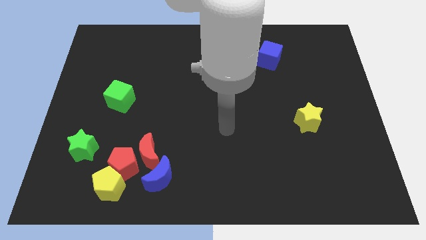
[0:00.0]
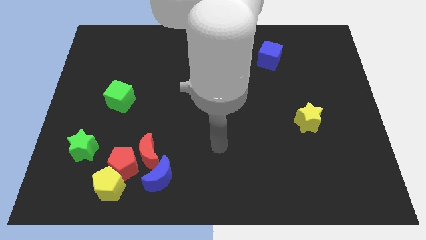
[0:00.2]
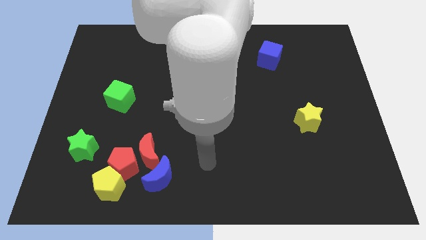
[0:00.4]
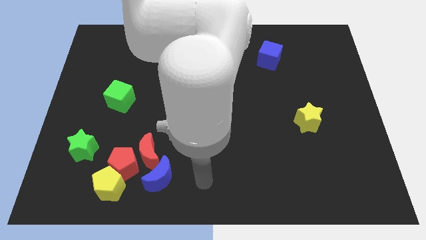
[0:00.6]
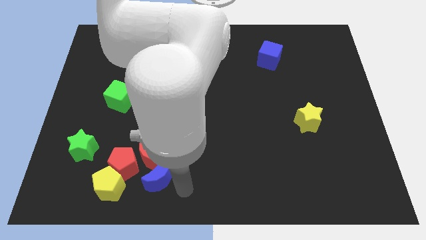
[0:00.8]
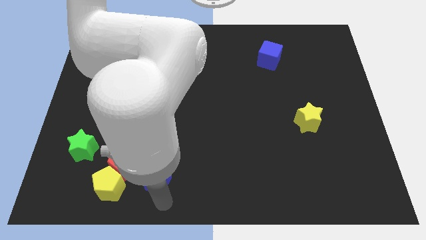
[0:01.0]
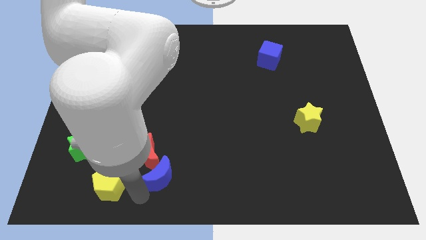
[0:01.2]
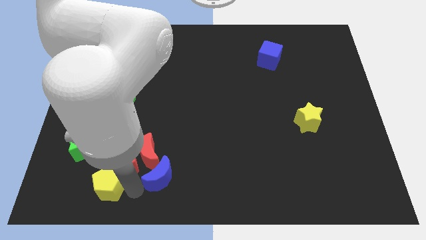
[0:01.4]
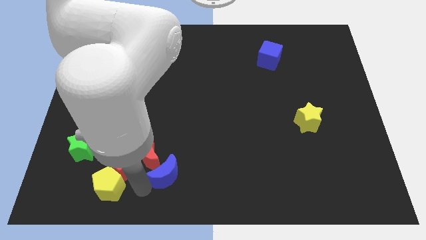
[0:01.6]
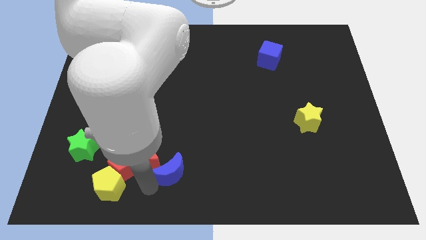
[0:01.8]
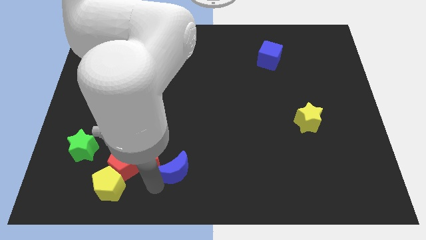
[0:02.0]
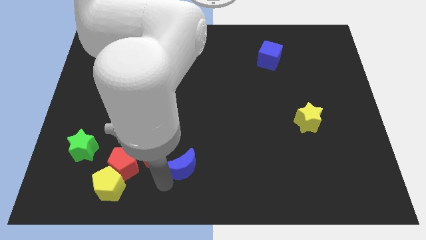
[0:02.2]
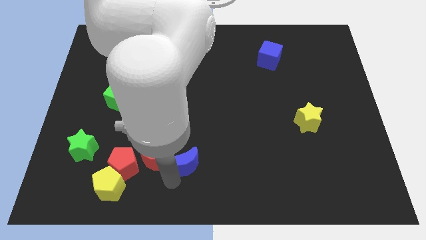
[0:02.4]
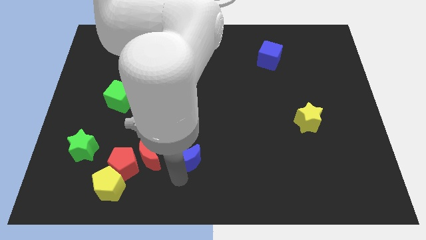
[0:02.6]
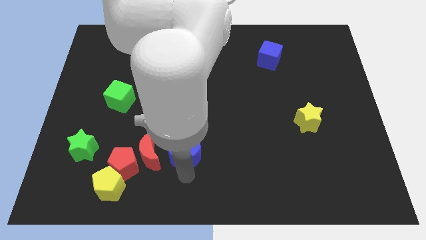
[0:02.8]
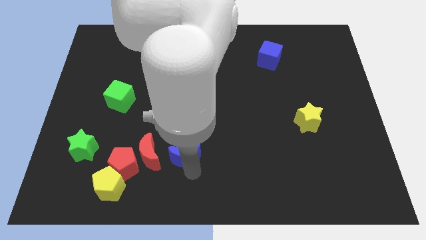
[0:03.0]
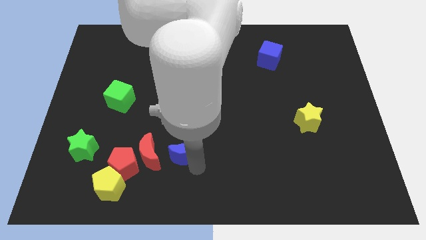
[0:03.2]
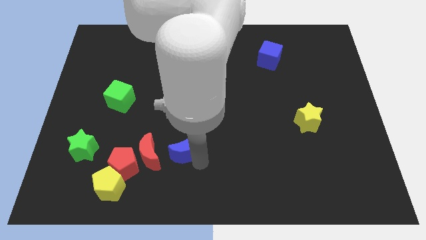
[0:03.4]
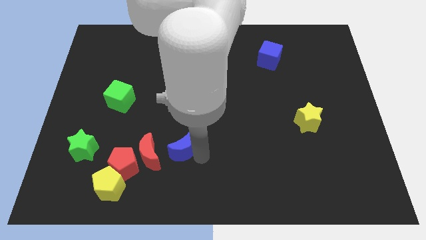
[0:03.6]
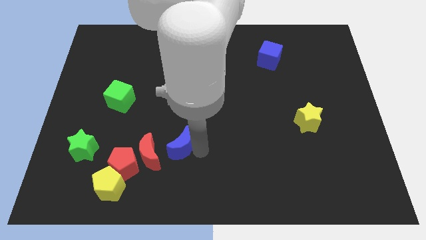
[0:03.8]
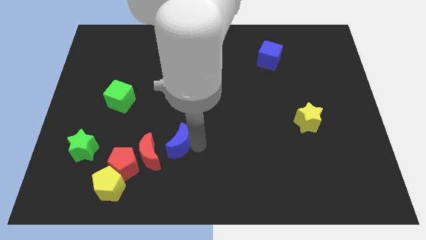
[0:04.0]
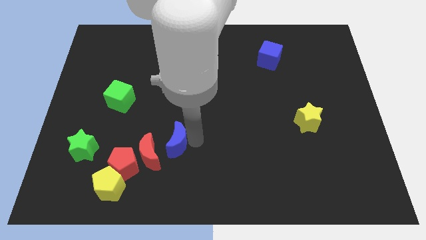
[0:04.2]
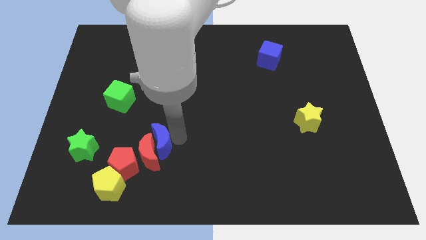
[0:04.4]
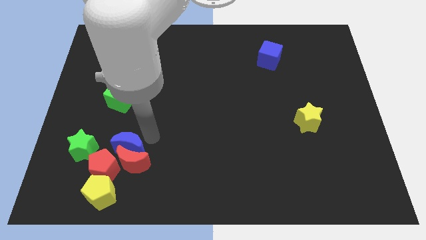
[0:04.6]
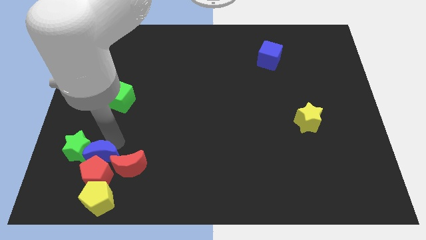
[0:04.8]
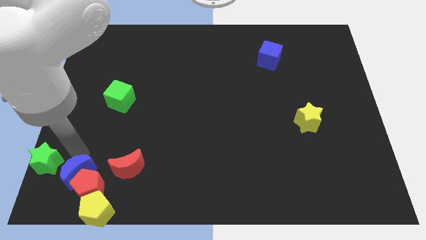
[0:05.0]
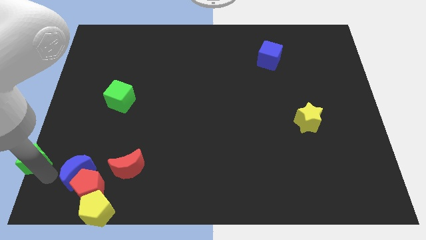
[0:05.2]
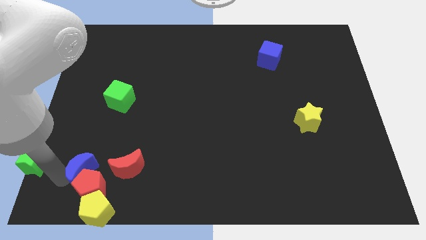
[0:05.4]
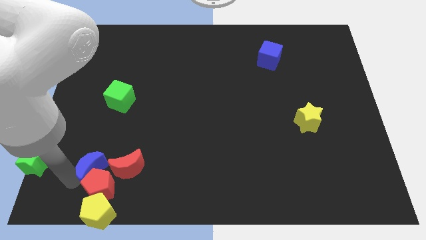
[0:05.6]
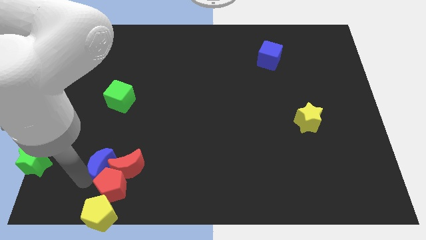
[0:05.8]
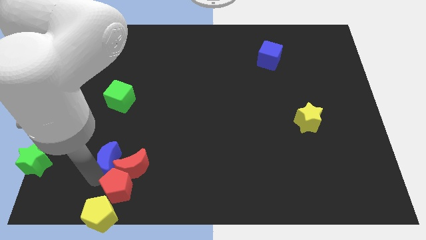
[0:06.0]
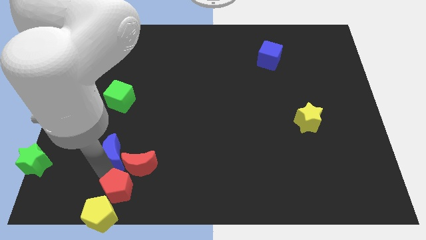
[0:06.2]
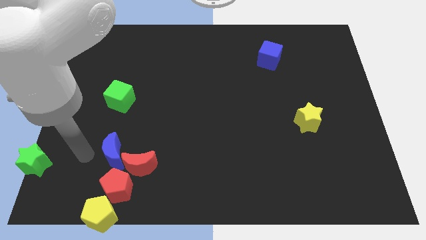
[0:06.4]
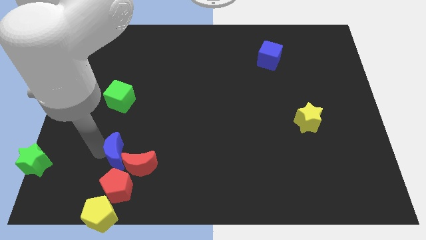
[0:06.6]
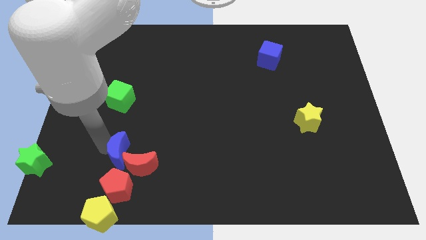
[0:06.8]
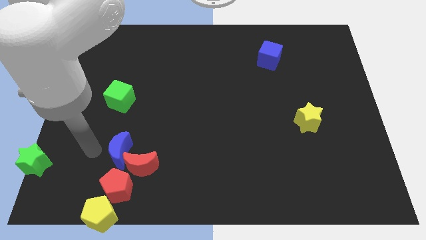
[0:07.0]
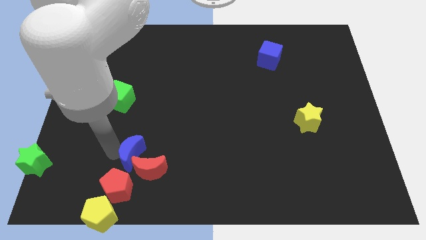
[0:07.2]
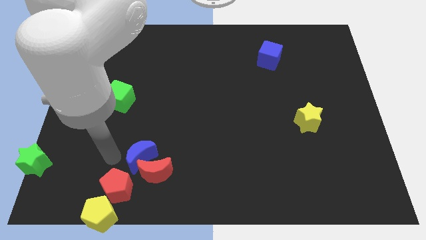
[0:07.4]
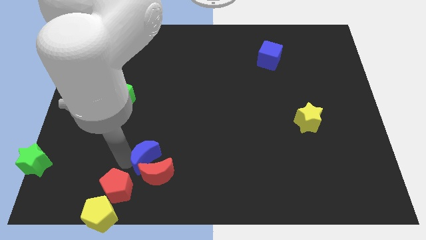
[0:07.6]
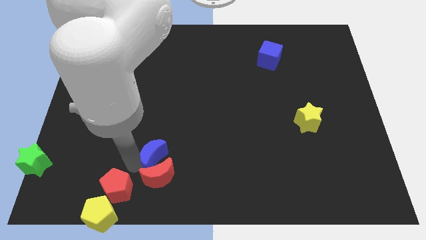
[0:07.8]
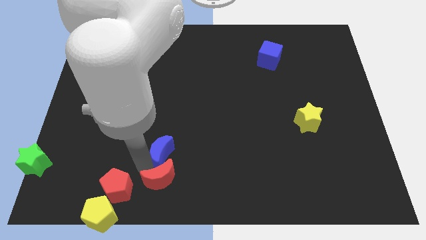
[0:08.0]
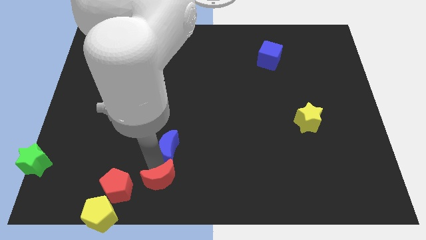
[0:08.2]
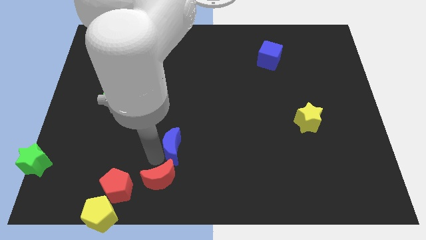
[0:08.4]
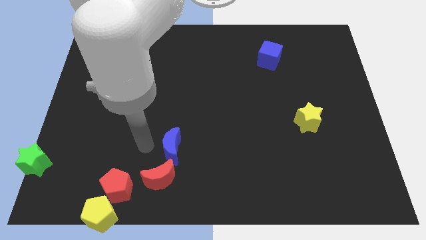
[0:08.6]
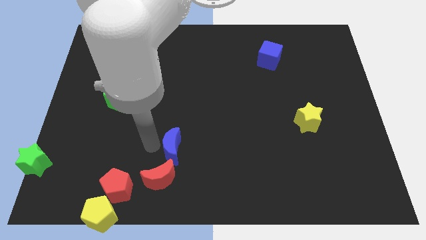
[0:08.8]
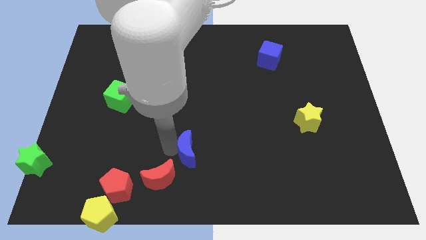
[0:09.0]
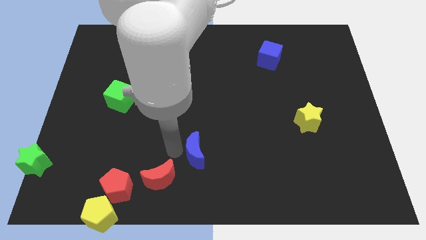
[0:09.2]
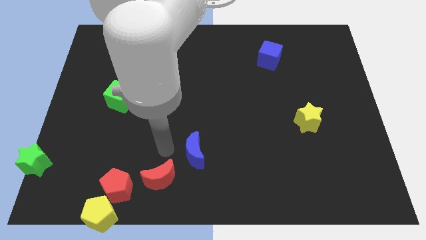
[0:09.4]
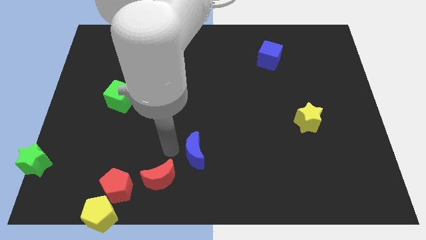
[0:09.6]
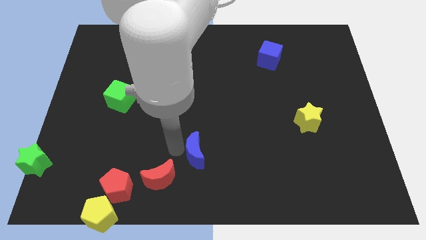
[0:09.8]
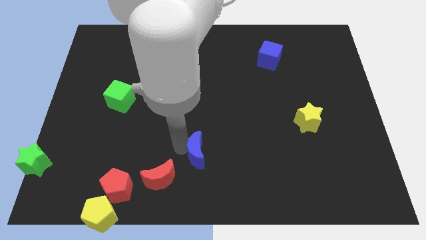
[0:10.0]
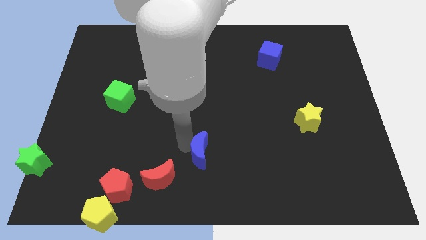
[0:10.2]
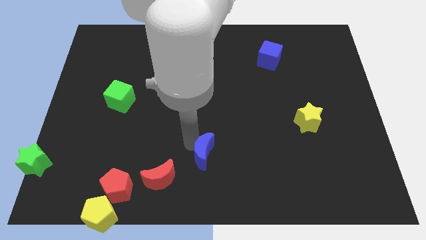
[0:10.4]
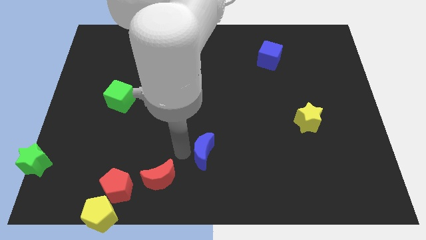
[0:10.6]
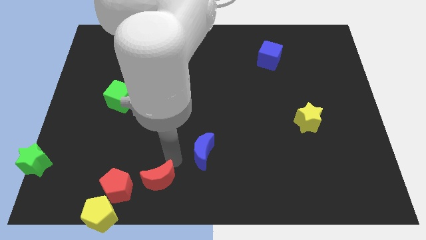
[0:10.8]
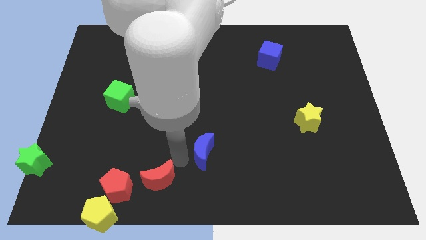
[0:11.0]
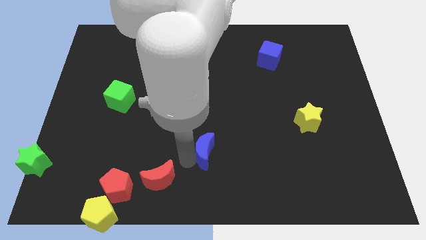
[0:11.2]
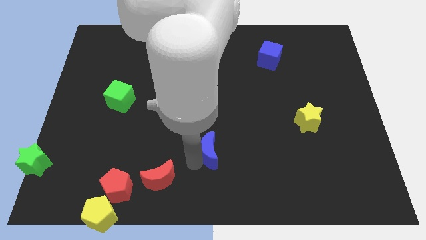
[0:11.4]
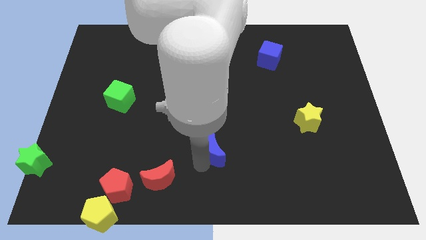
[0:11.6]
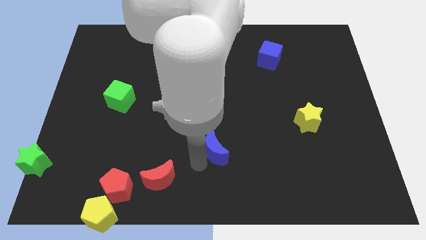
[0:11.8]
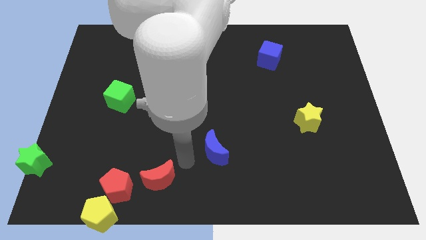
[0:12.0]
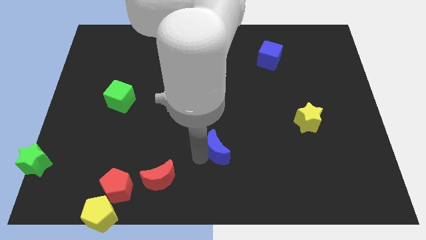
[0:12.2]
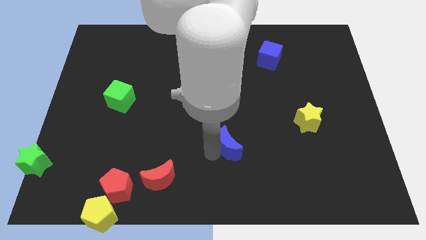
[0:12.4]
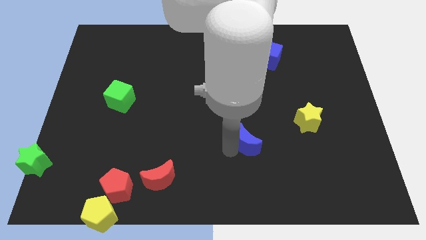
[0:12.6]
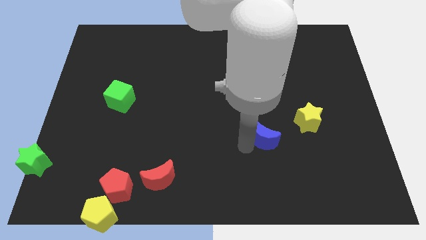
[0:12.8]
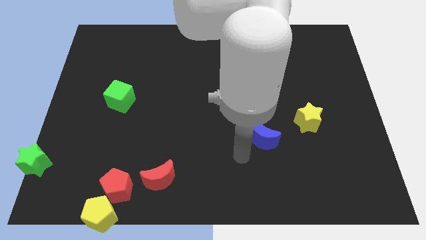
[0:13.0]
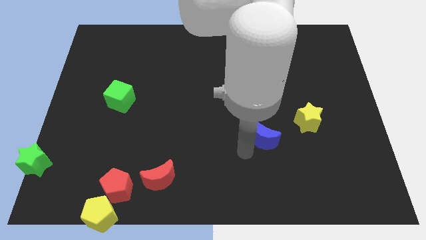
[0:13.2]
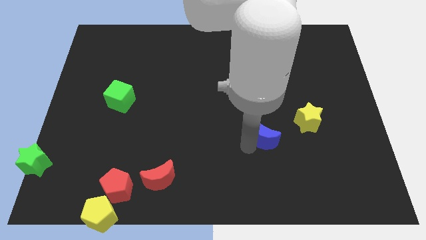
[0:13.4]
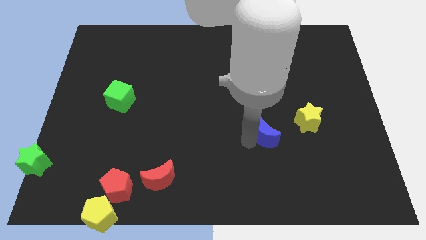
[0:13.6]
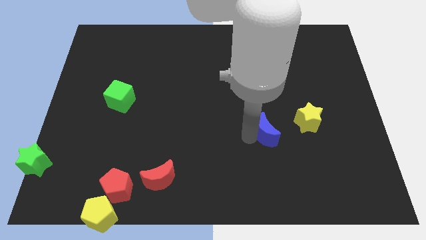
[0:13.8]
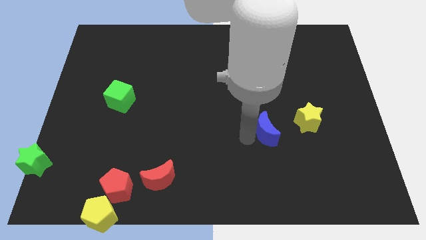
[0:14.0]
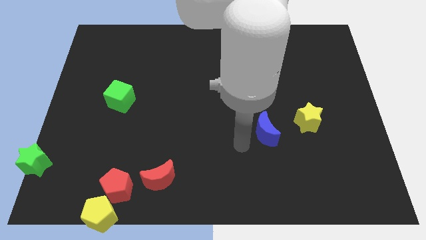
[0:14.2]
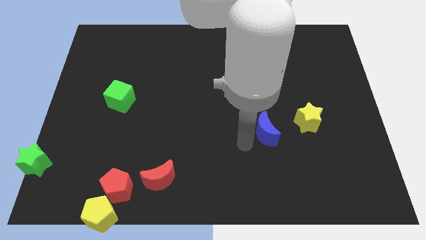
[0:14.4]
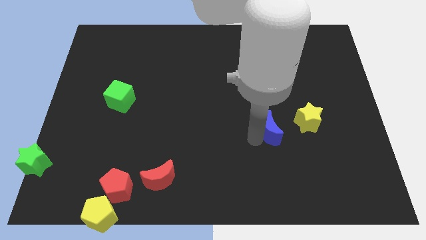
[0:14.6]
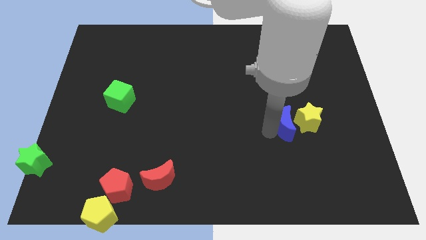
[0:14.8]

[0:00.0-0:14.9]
push the blue moon next to the yellow star
